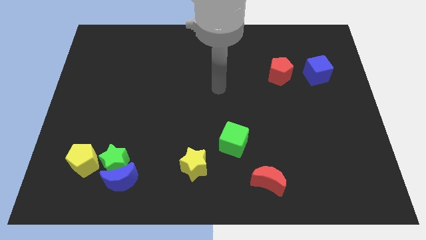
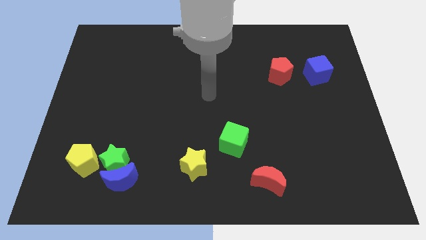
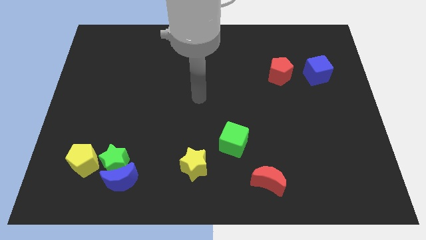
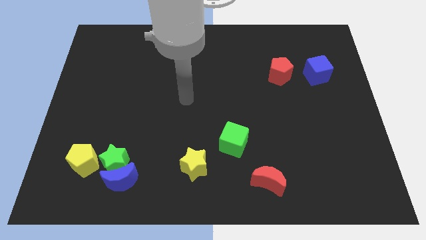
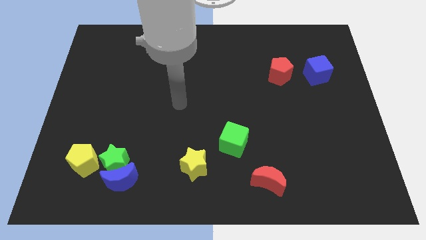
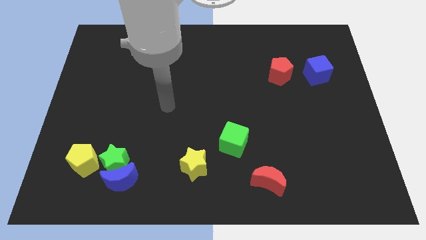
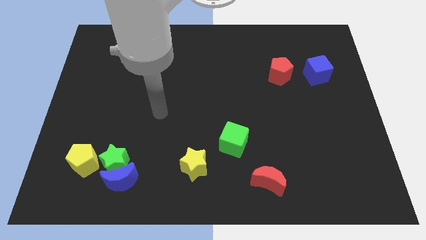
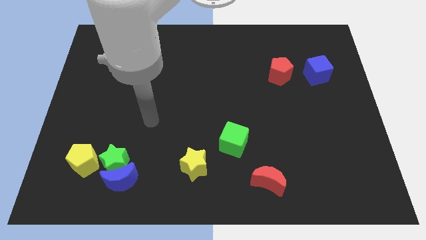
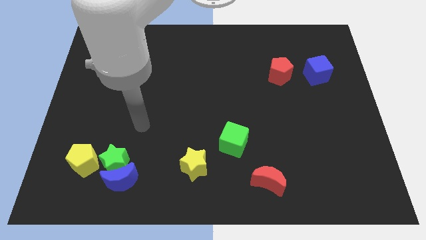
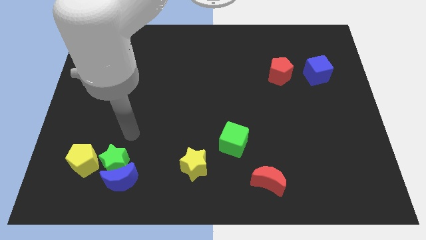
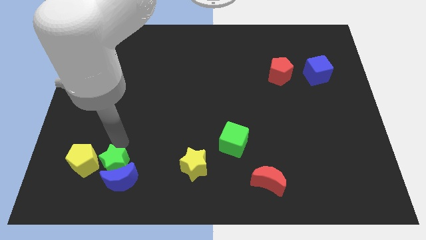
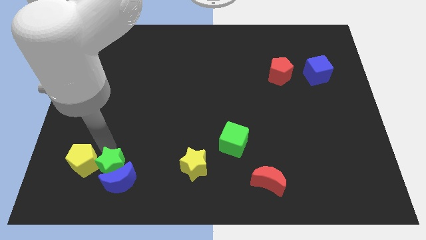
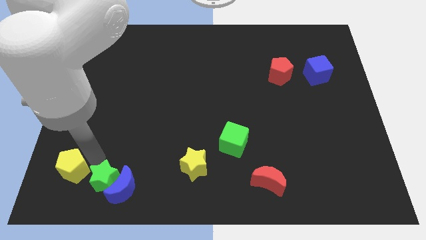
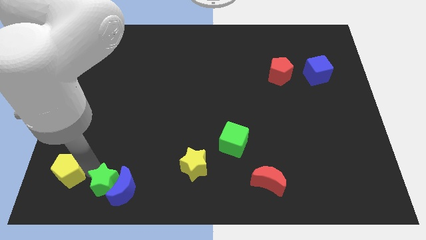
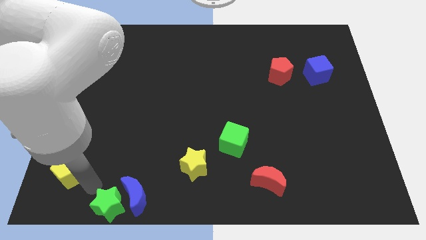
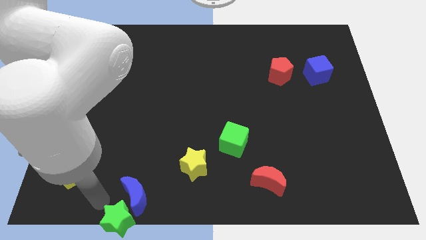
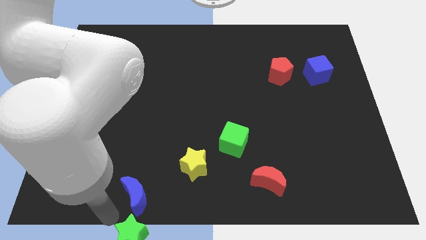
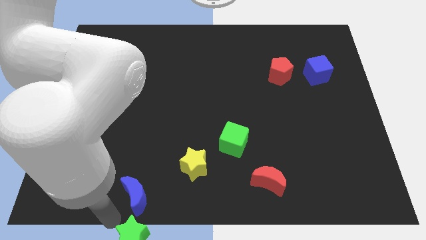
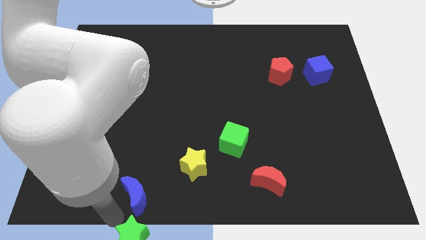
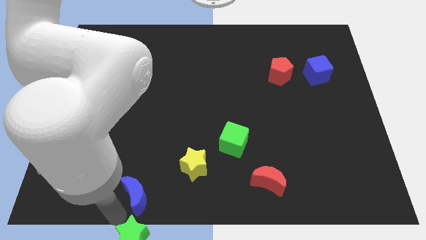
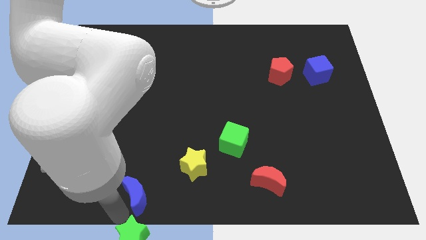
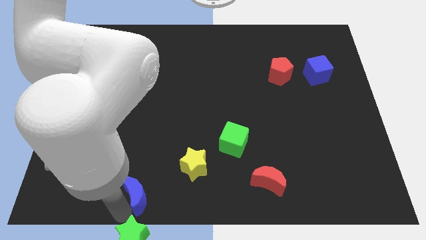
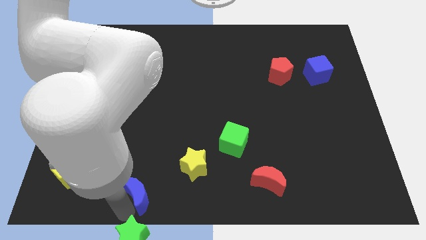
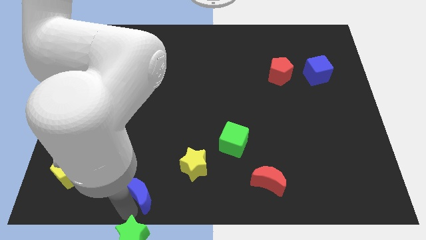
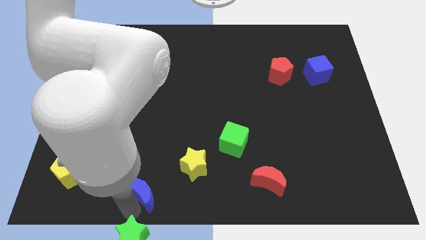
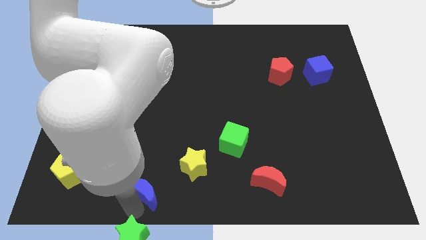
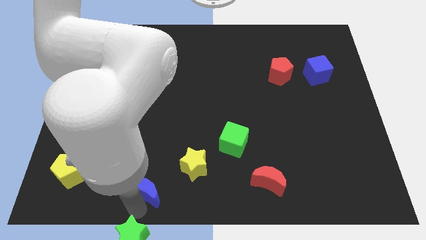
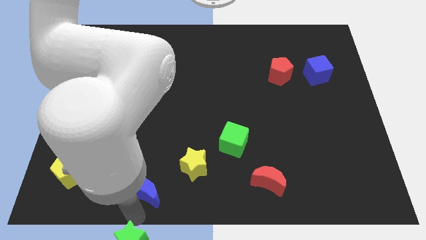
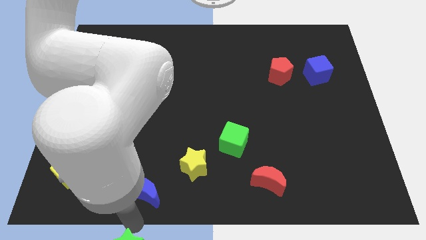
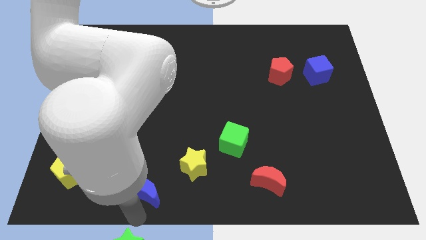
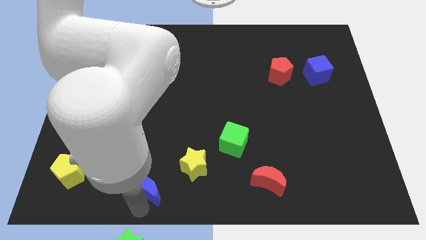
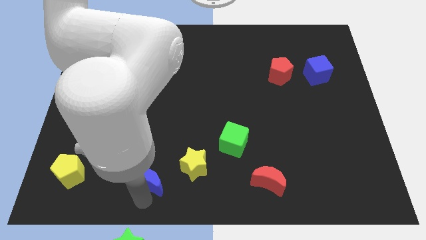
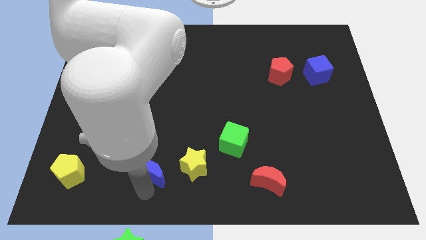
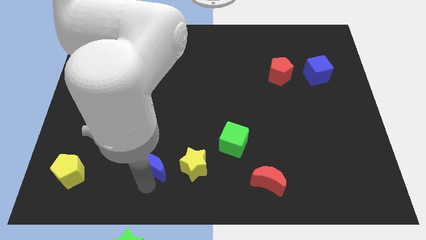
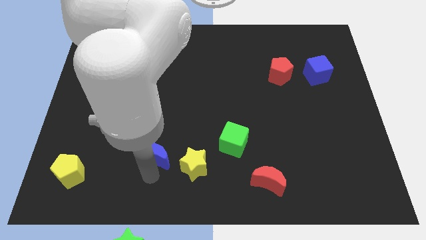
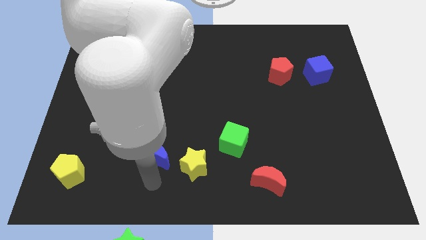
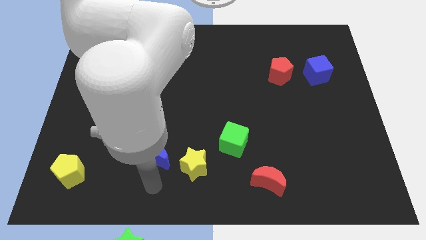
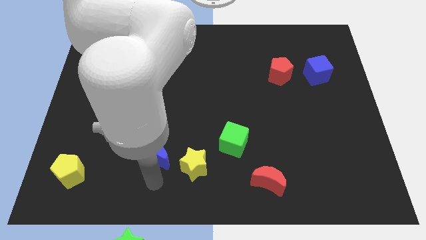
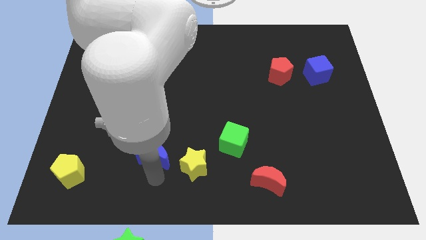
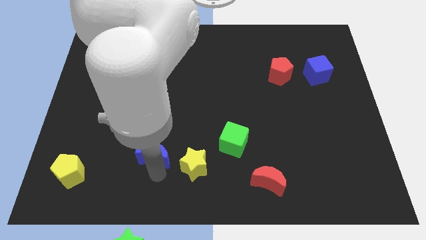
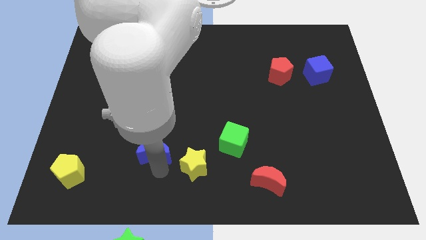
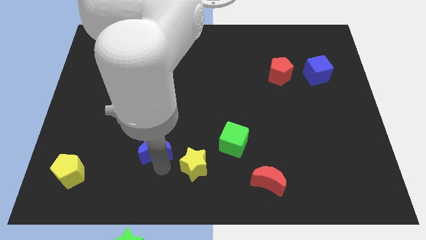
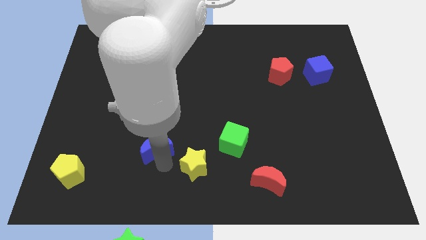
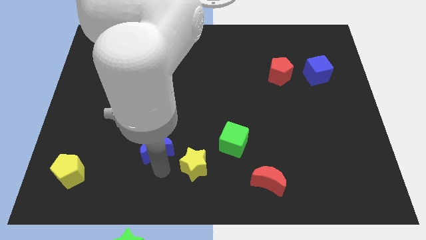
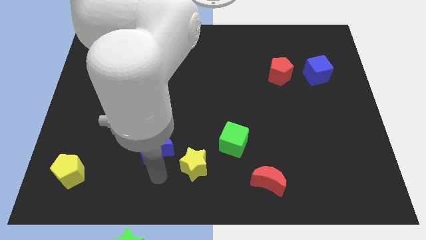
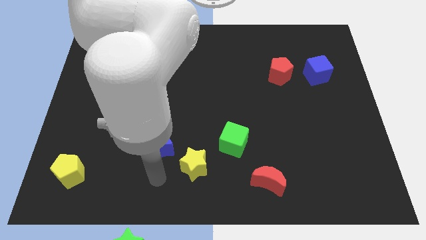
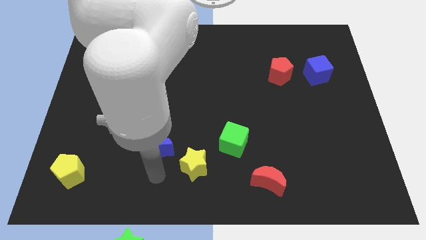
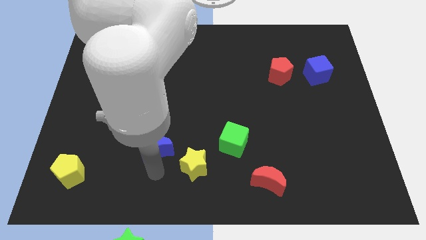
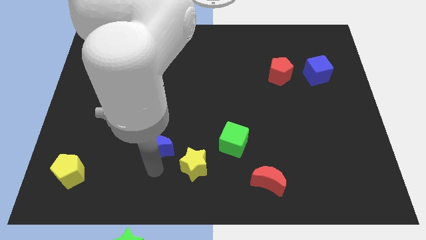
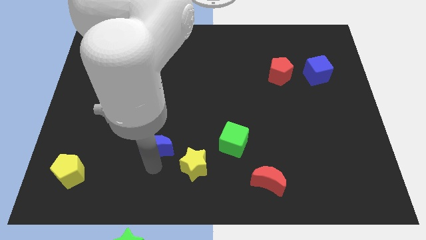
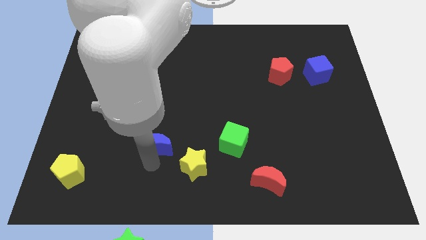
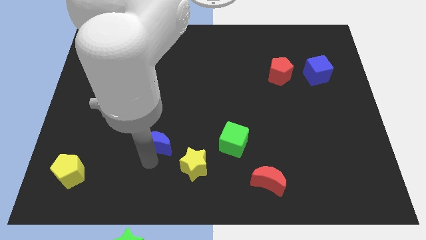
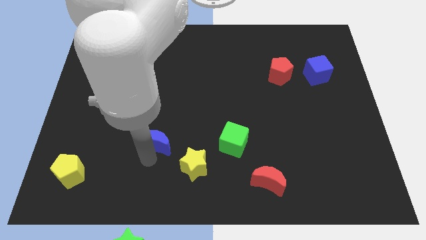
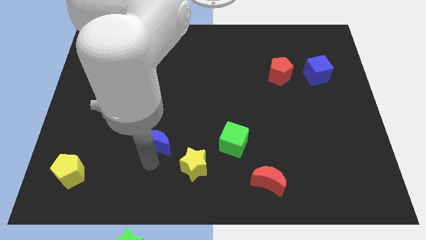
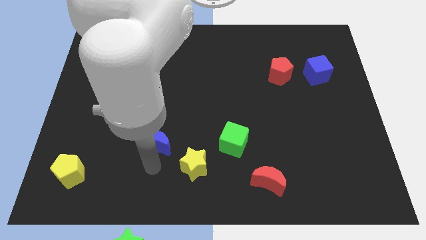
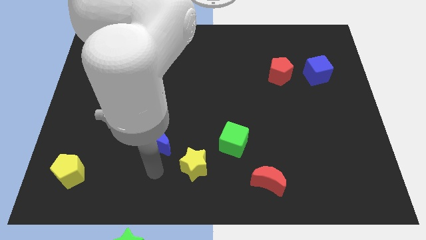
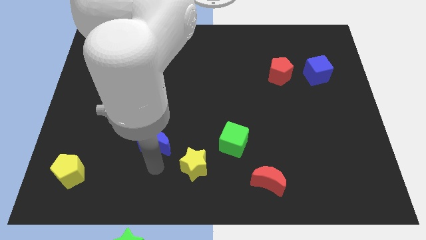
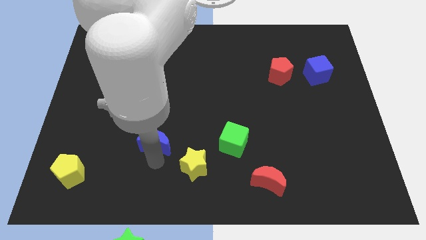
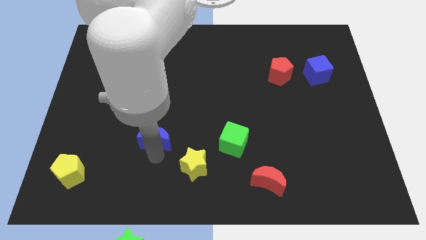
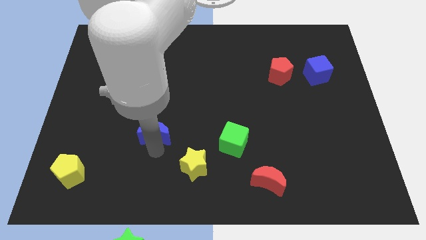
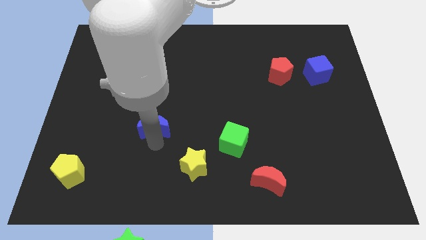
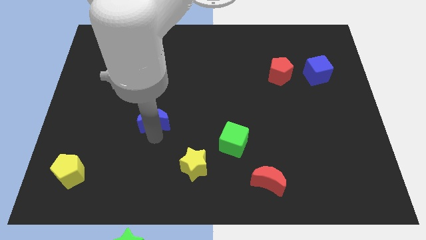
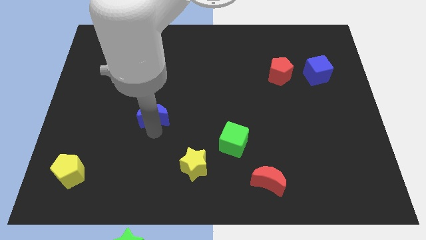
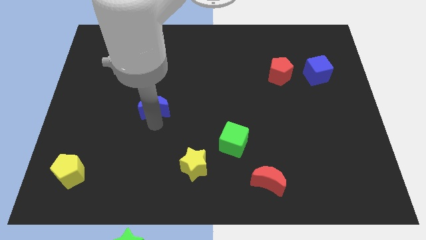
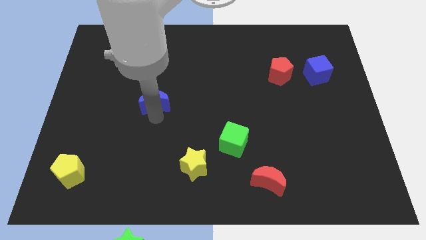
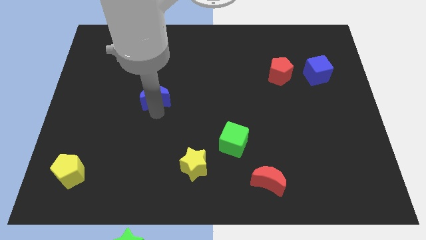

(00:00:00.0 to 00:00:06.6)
move the blue moon upwards

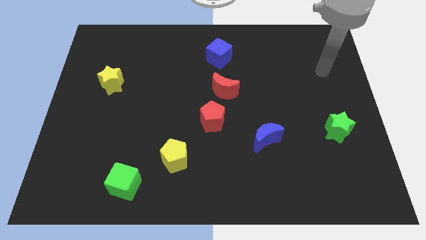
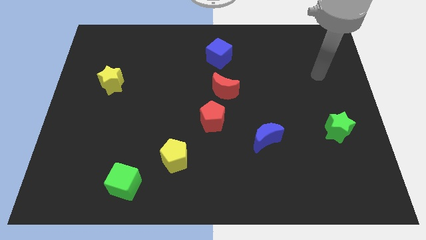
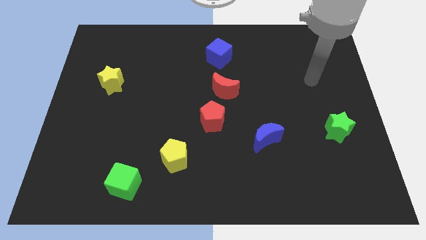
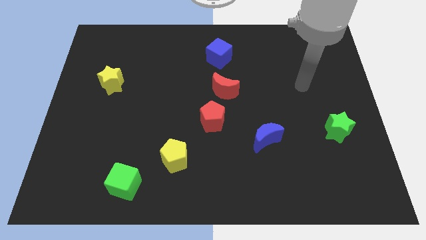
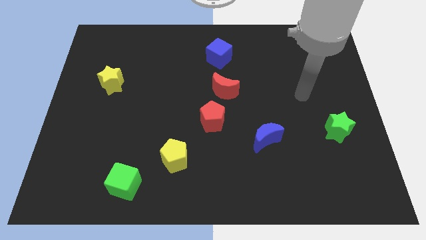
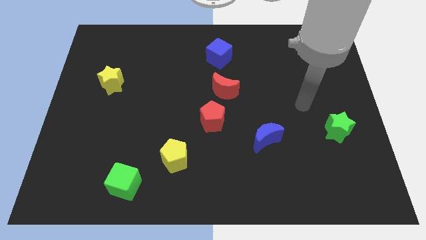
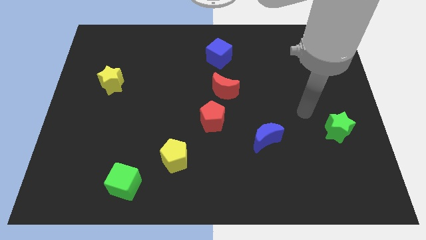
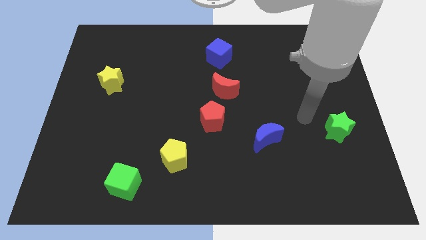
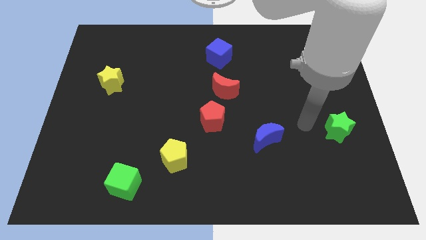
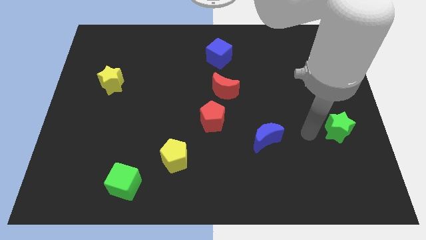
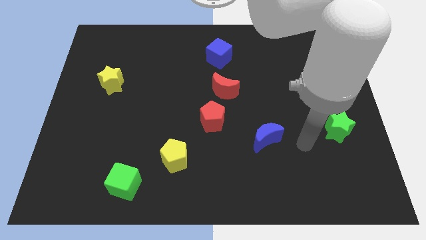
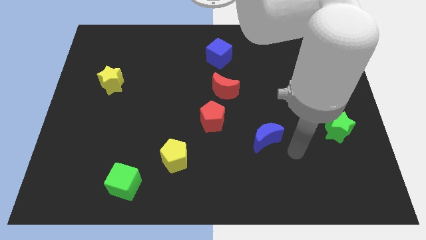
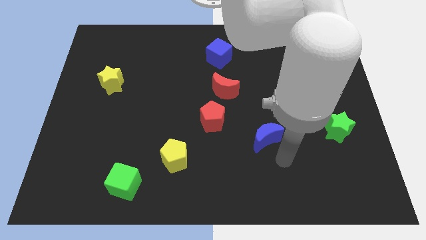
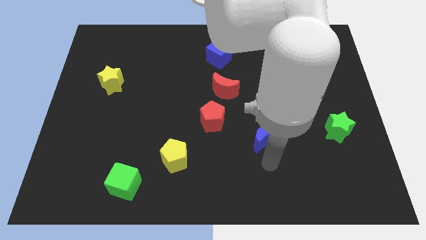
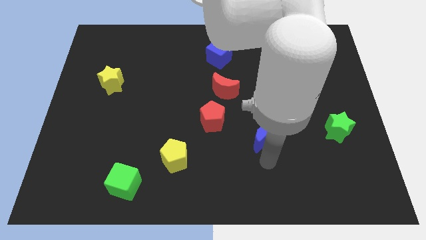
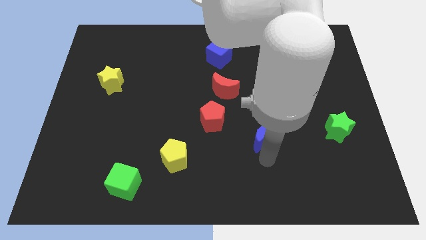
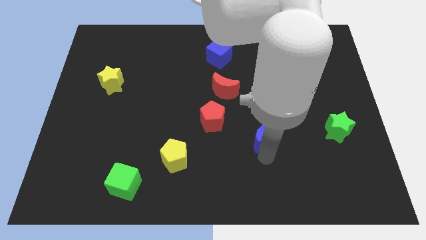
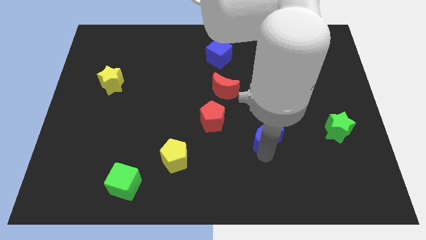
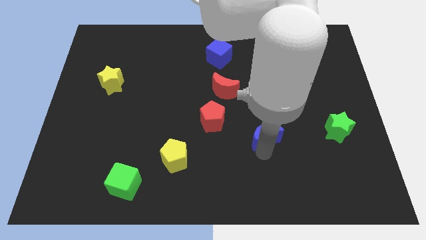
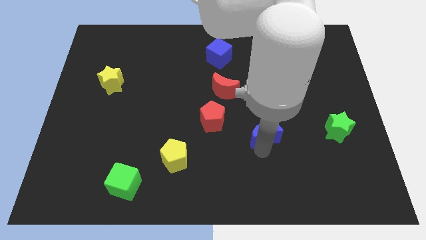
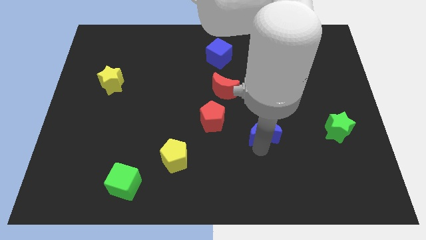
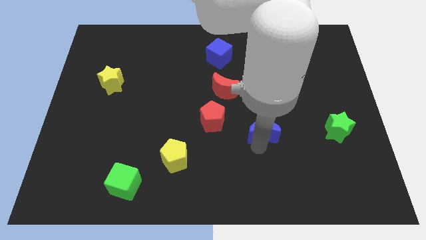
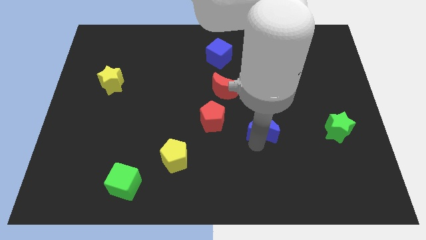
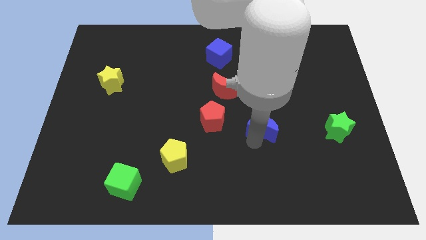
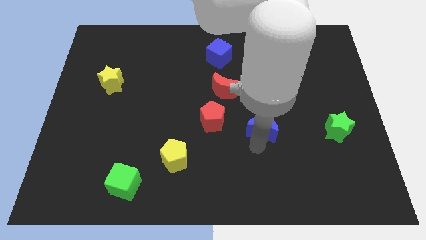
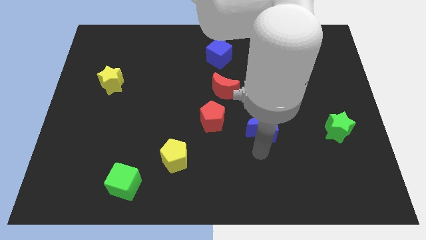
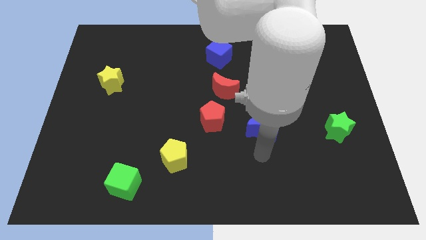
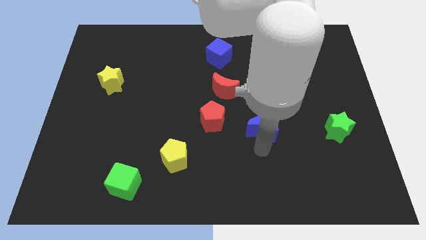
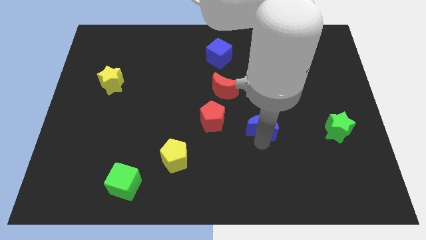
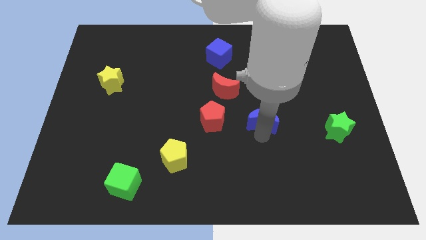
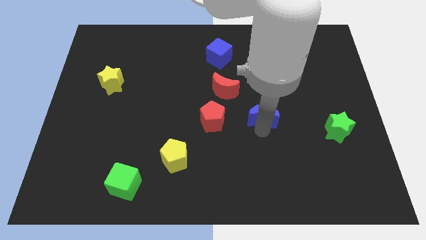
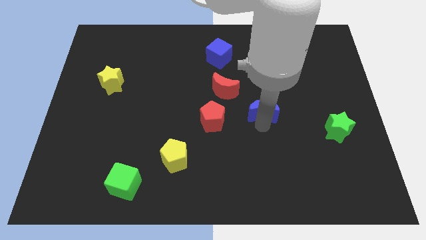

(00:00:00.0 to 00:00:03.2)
slightly slide the blue moon up
